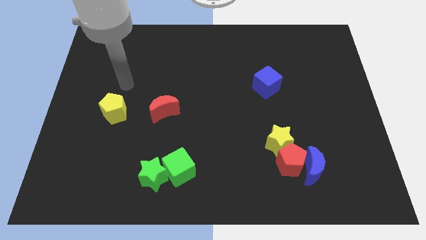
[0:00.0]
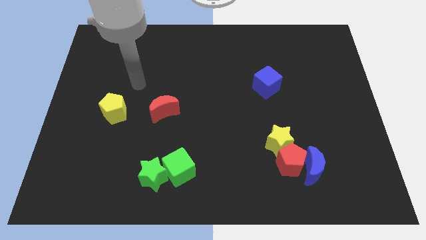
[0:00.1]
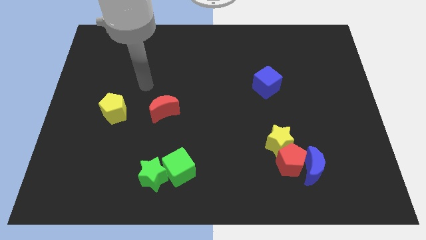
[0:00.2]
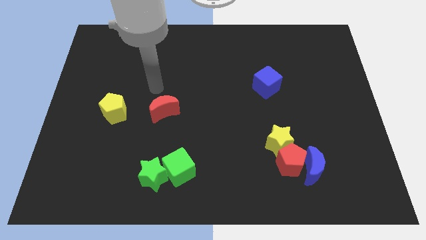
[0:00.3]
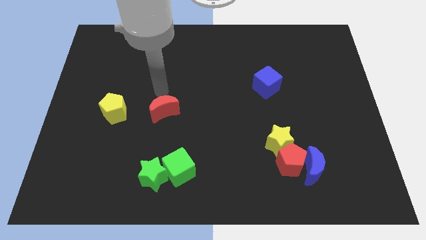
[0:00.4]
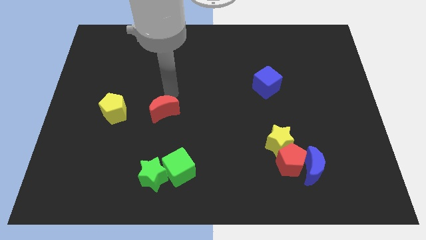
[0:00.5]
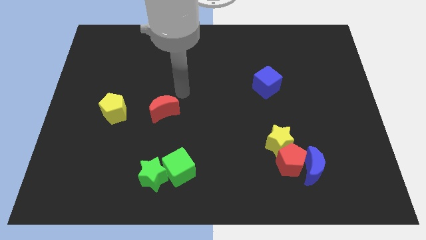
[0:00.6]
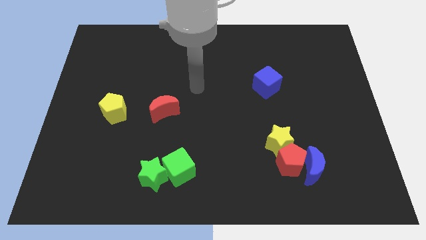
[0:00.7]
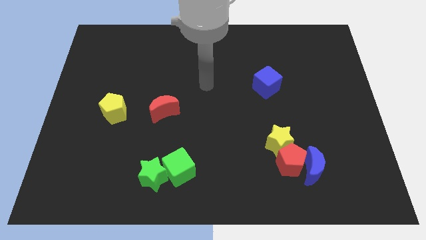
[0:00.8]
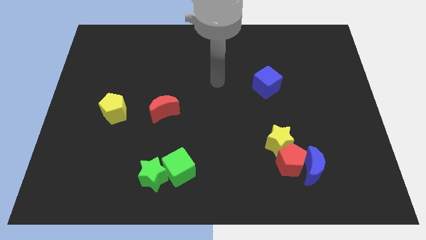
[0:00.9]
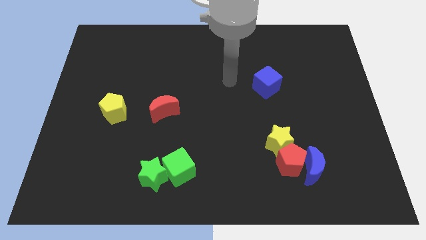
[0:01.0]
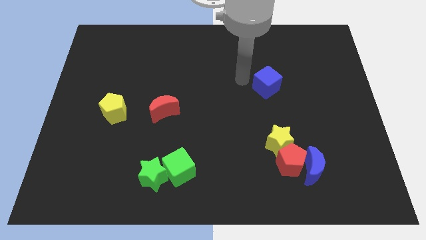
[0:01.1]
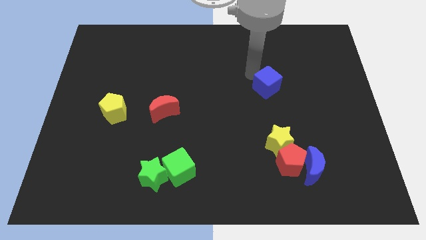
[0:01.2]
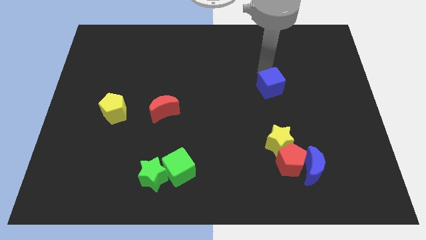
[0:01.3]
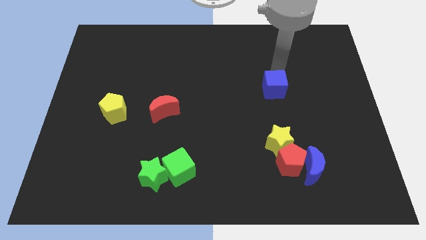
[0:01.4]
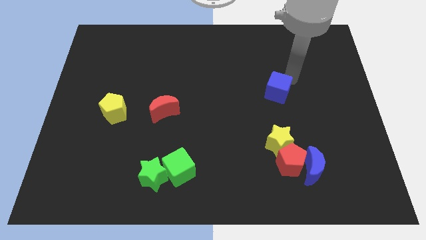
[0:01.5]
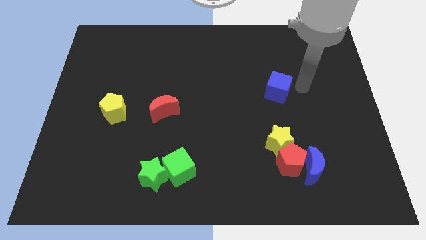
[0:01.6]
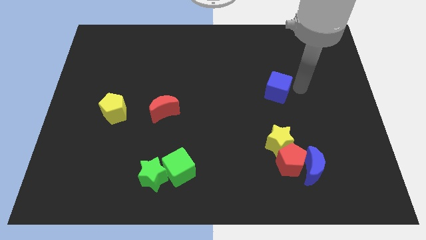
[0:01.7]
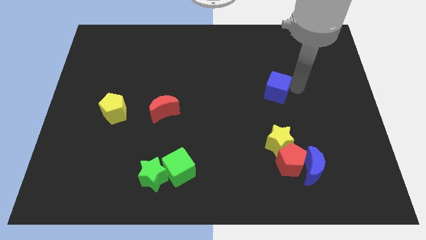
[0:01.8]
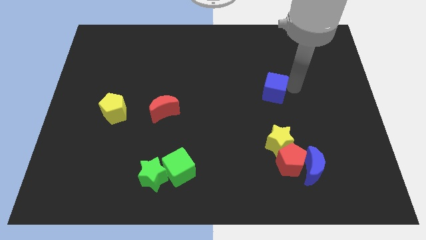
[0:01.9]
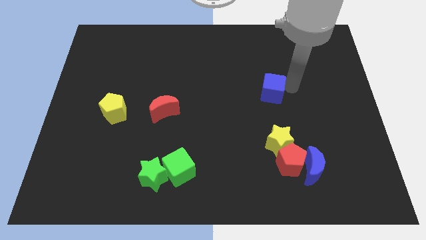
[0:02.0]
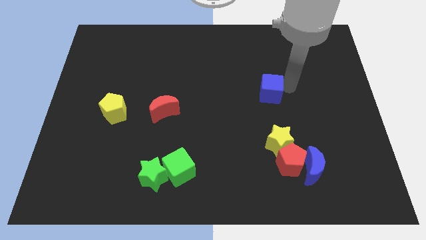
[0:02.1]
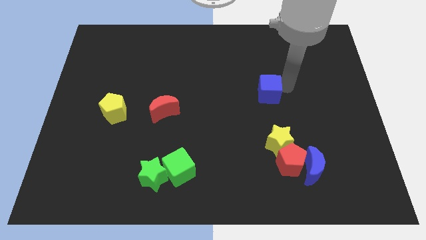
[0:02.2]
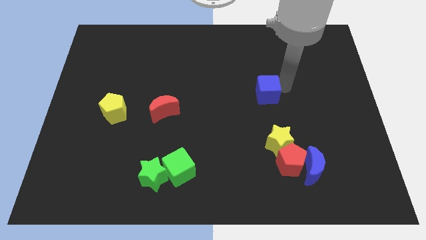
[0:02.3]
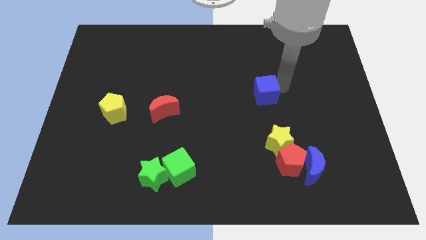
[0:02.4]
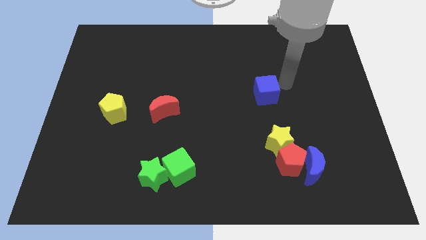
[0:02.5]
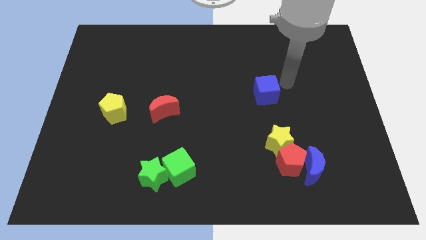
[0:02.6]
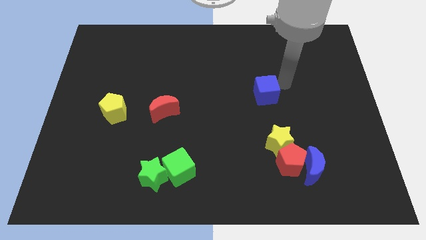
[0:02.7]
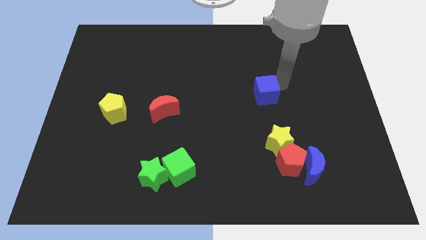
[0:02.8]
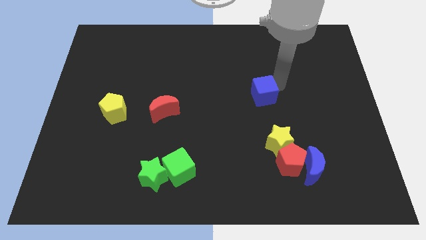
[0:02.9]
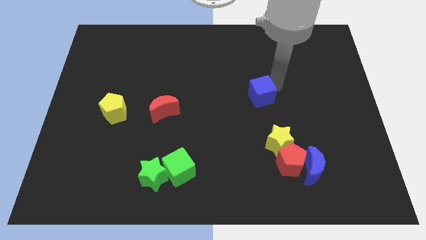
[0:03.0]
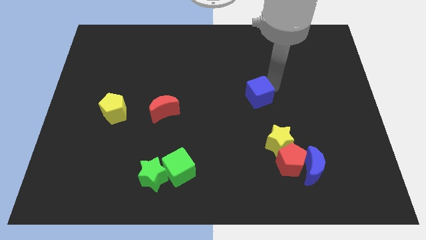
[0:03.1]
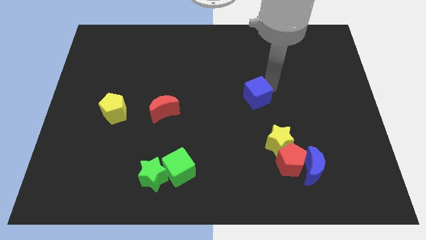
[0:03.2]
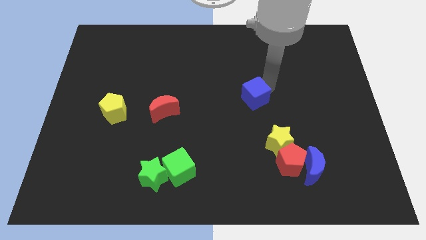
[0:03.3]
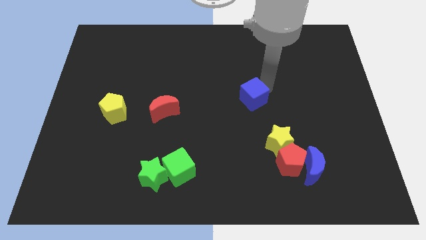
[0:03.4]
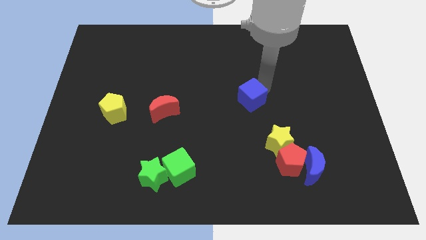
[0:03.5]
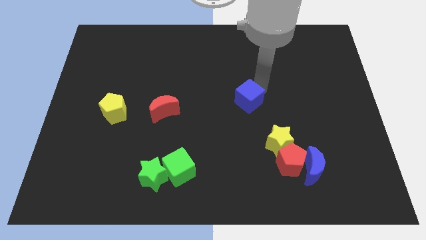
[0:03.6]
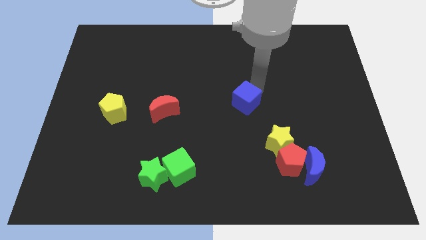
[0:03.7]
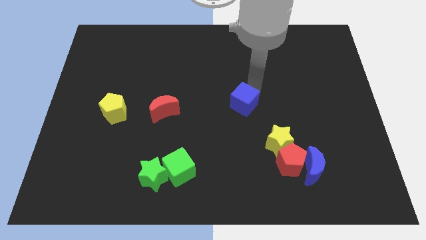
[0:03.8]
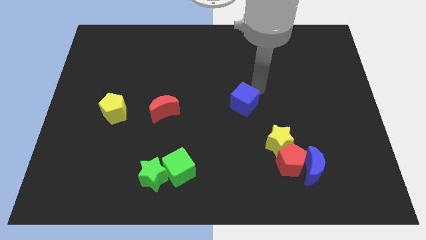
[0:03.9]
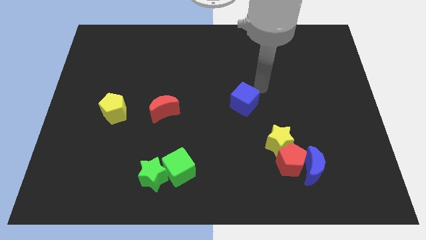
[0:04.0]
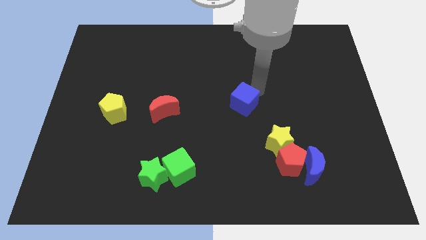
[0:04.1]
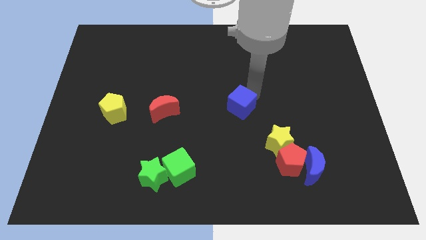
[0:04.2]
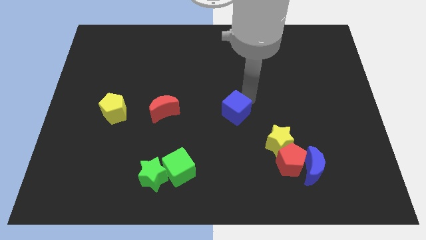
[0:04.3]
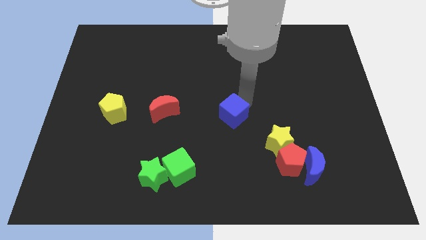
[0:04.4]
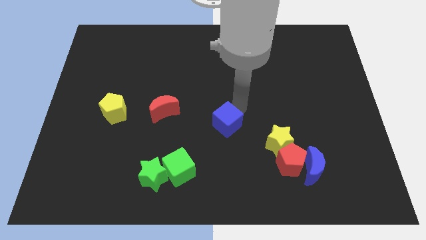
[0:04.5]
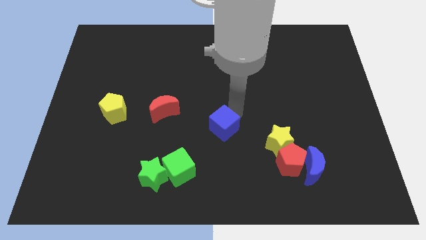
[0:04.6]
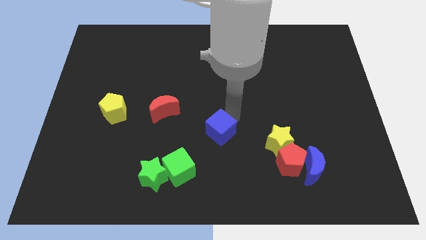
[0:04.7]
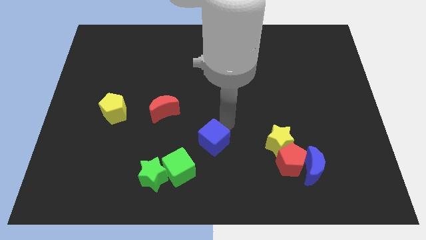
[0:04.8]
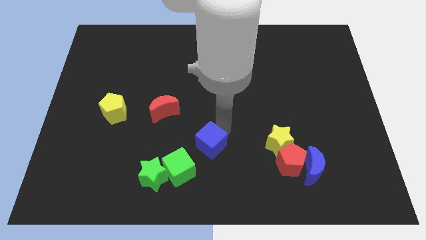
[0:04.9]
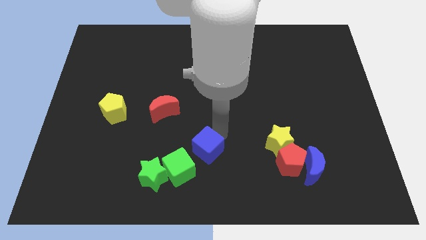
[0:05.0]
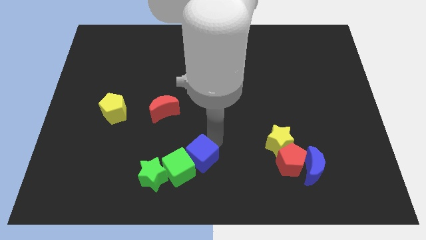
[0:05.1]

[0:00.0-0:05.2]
put the blue cube close to the green cube

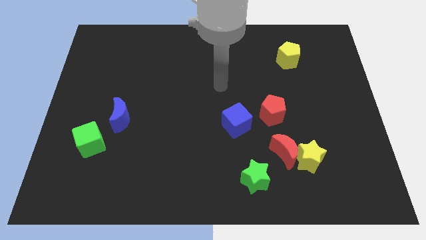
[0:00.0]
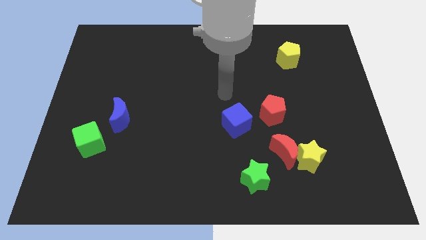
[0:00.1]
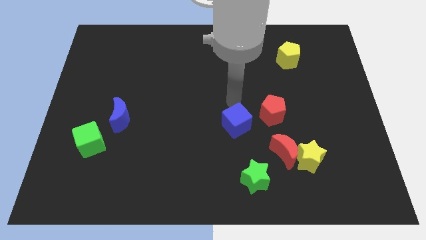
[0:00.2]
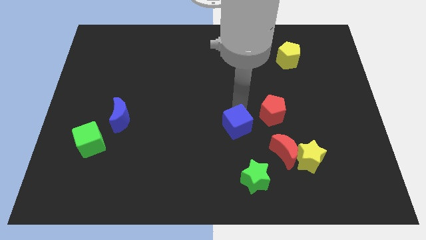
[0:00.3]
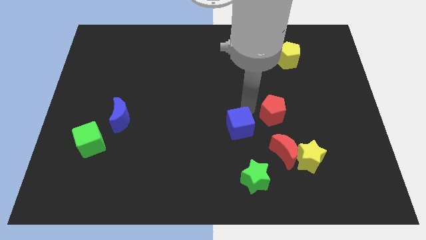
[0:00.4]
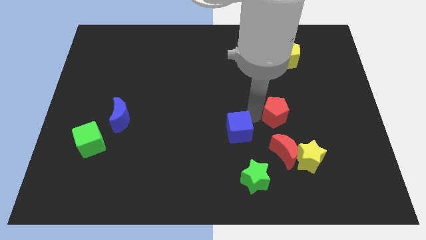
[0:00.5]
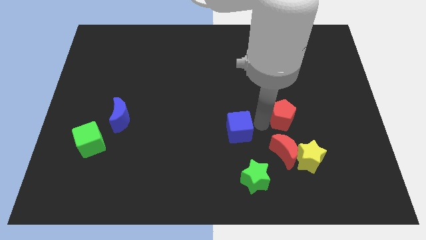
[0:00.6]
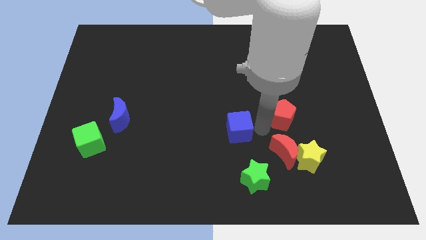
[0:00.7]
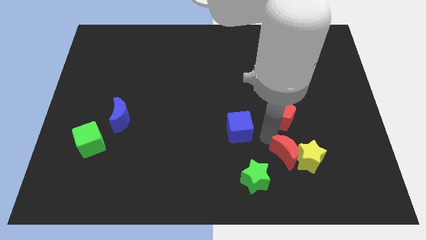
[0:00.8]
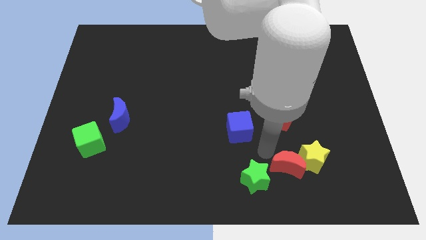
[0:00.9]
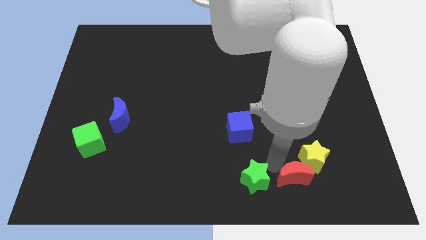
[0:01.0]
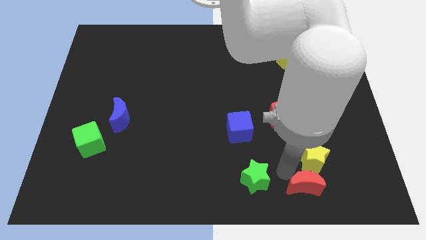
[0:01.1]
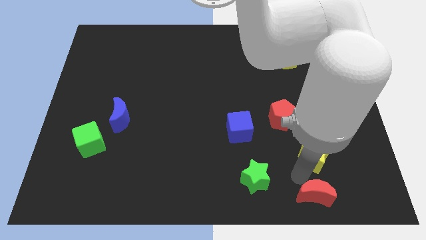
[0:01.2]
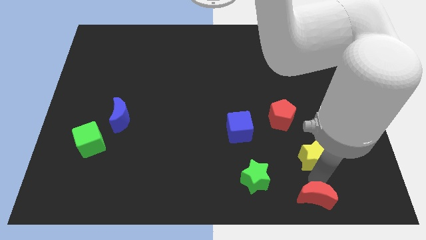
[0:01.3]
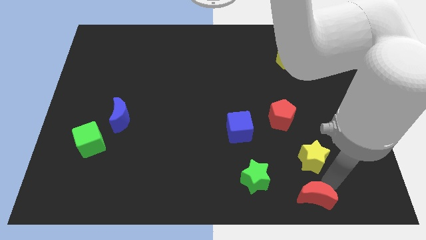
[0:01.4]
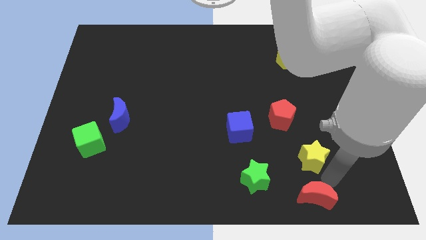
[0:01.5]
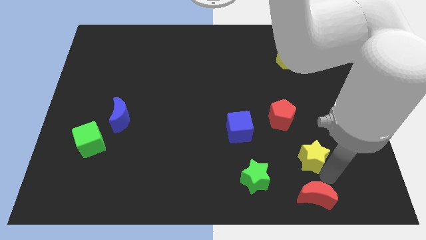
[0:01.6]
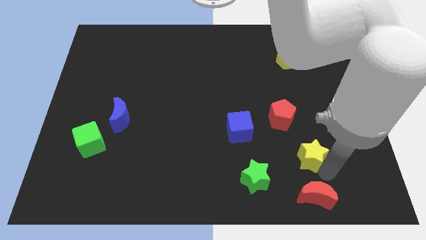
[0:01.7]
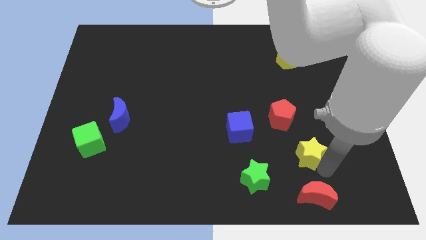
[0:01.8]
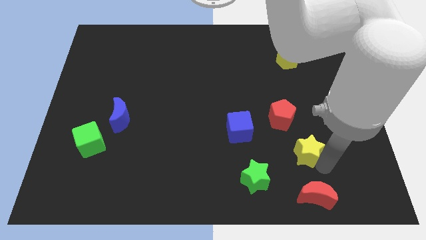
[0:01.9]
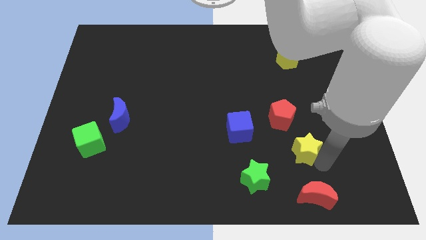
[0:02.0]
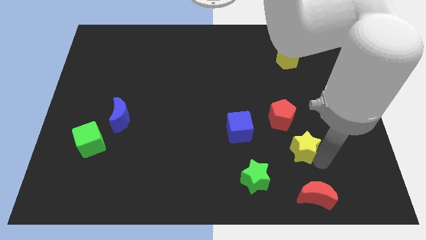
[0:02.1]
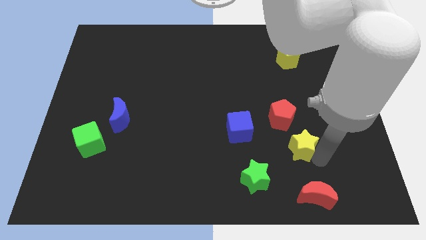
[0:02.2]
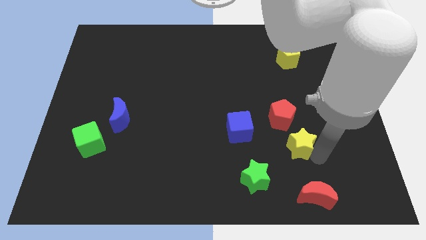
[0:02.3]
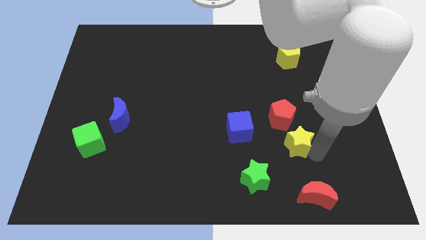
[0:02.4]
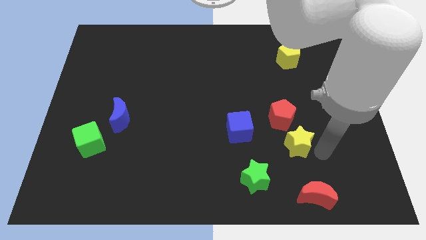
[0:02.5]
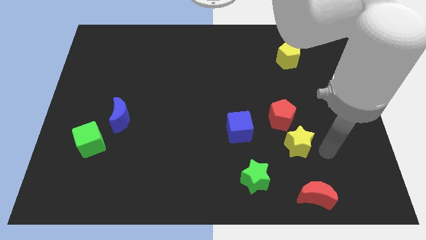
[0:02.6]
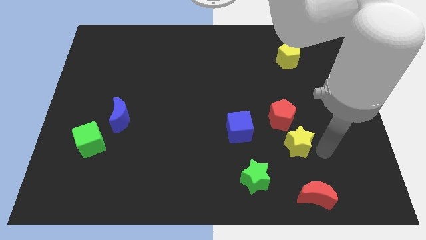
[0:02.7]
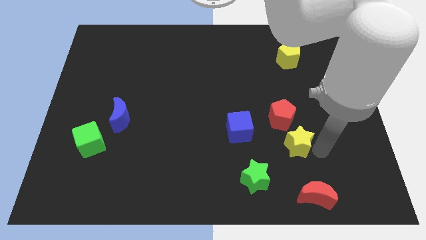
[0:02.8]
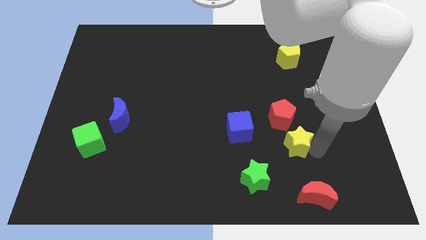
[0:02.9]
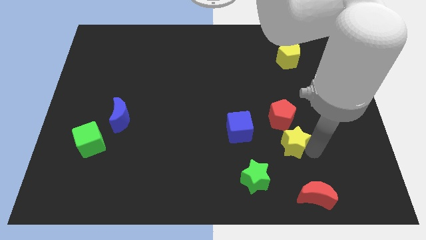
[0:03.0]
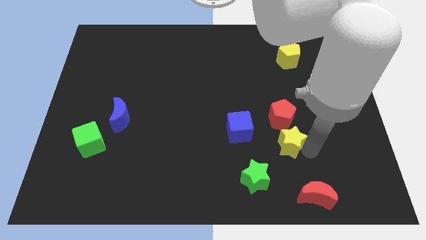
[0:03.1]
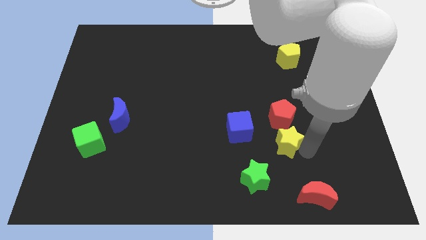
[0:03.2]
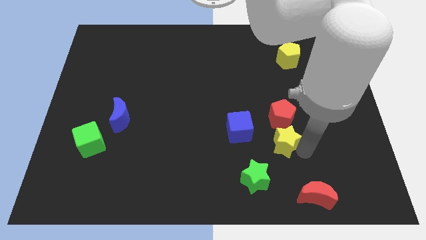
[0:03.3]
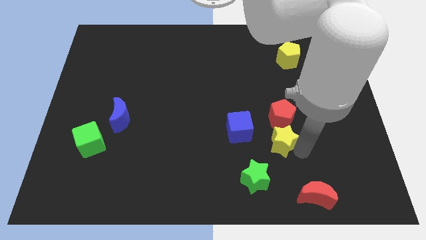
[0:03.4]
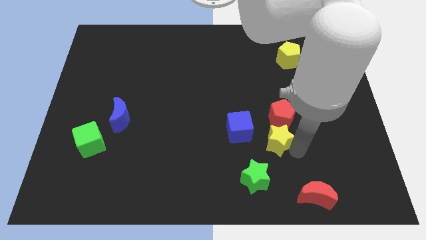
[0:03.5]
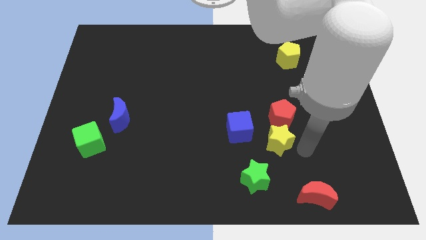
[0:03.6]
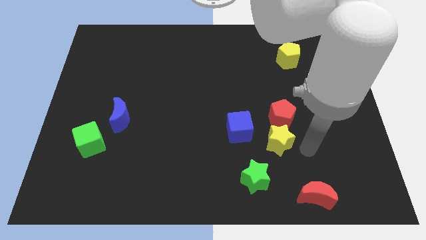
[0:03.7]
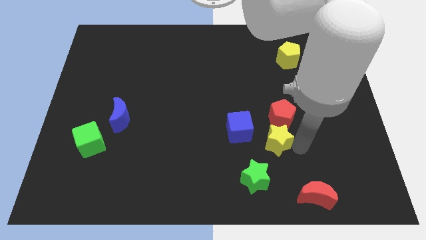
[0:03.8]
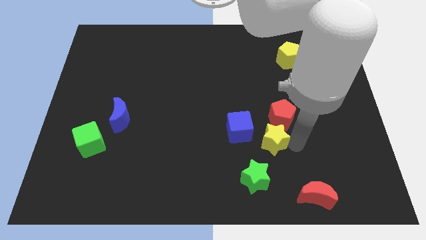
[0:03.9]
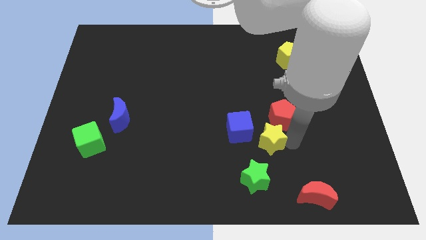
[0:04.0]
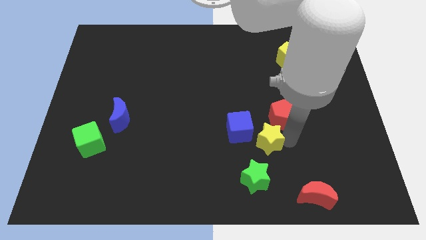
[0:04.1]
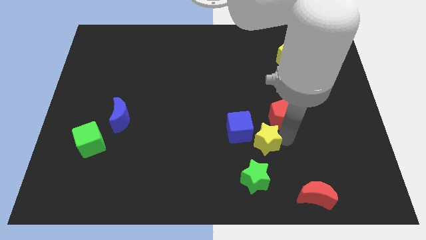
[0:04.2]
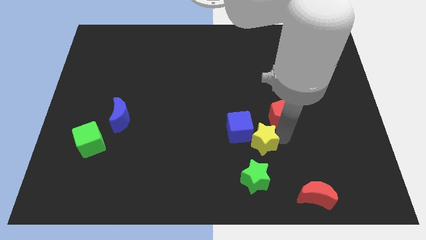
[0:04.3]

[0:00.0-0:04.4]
slide the yellow star to the blue cube
